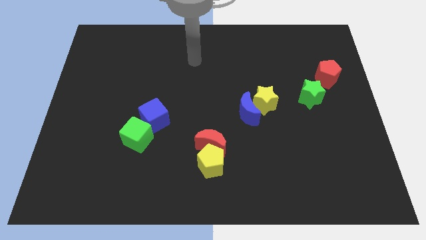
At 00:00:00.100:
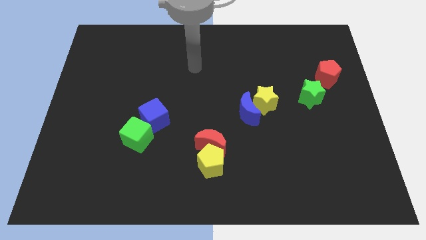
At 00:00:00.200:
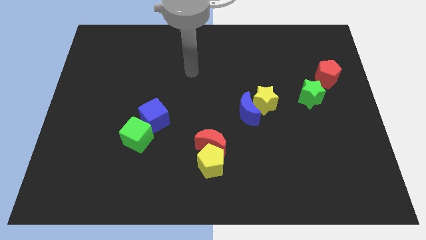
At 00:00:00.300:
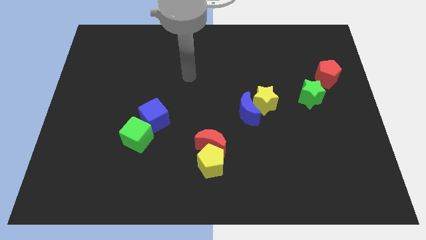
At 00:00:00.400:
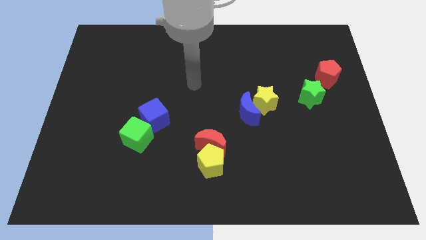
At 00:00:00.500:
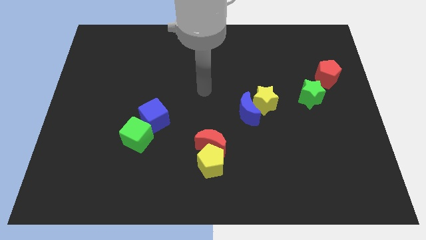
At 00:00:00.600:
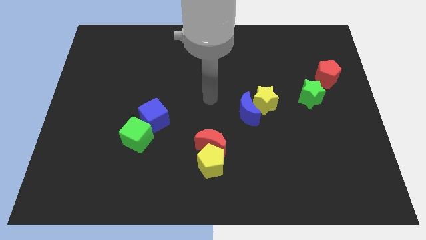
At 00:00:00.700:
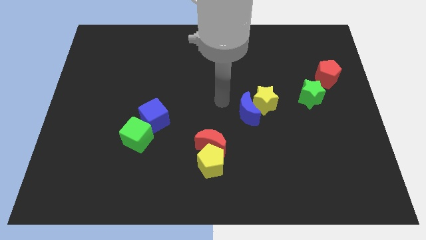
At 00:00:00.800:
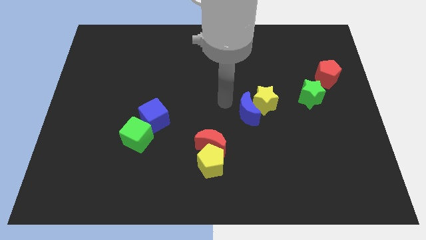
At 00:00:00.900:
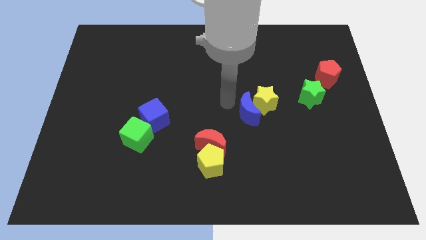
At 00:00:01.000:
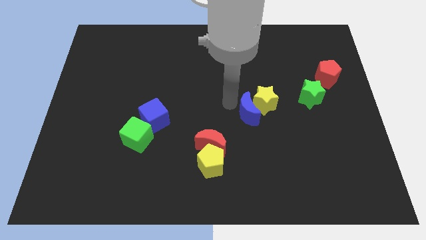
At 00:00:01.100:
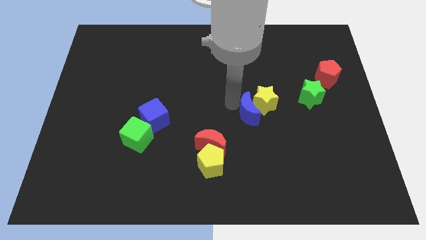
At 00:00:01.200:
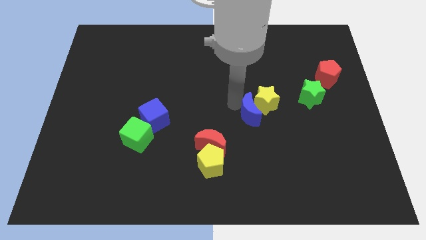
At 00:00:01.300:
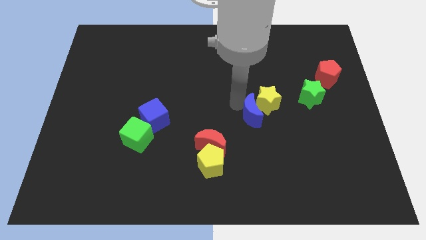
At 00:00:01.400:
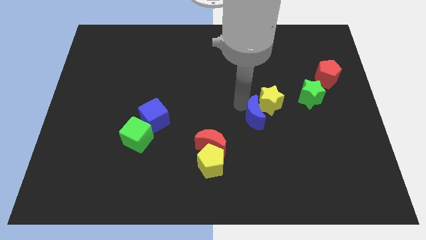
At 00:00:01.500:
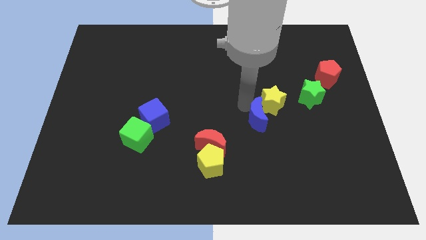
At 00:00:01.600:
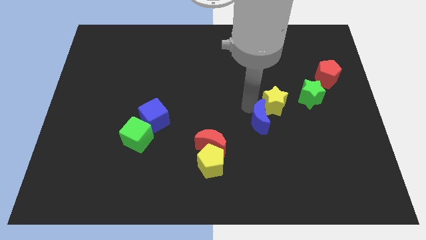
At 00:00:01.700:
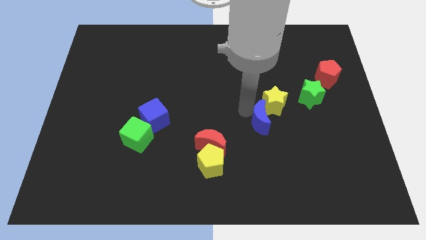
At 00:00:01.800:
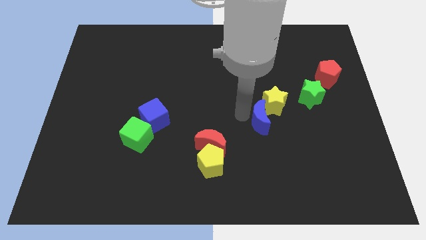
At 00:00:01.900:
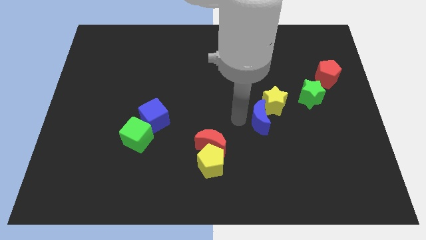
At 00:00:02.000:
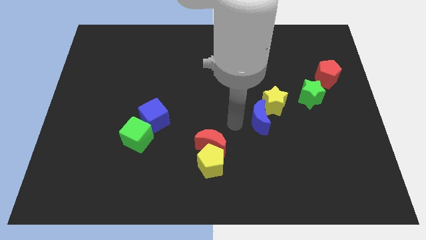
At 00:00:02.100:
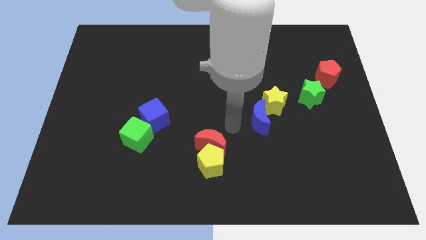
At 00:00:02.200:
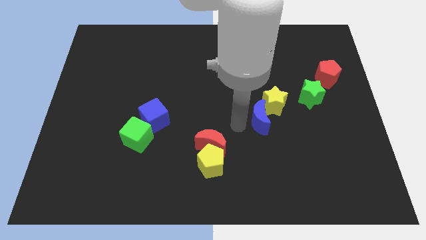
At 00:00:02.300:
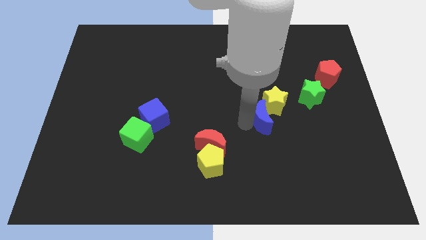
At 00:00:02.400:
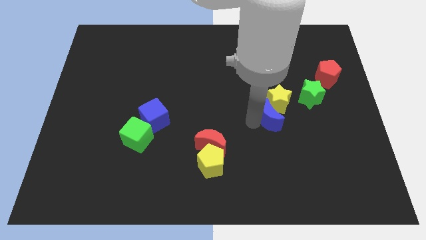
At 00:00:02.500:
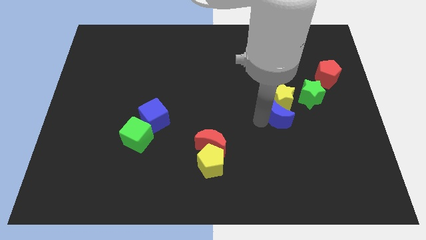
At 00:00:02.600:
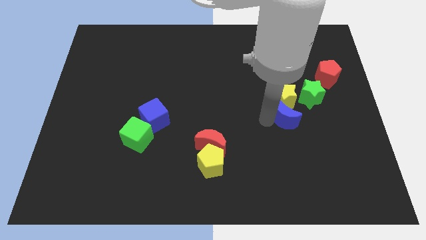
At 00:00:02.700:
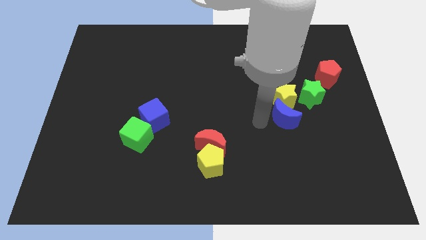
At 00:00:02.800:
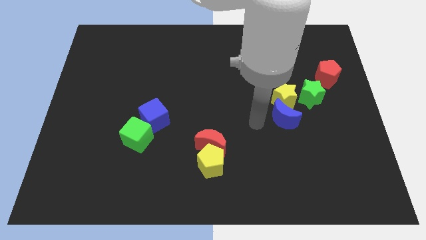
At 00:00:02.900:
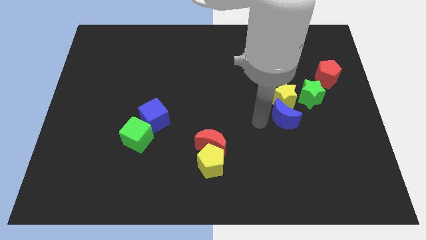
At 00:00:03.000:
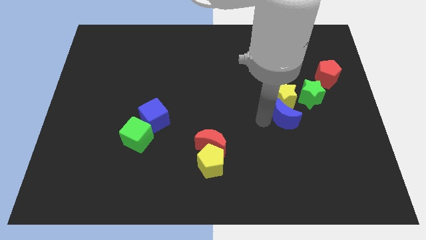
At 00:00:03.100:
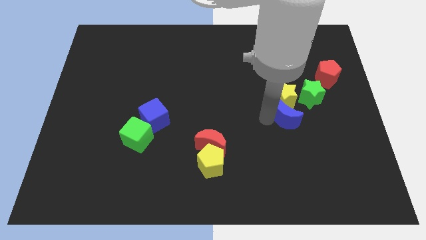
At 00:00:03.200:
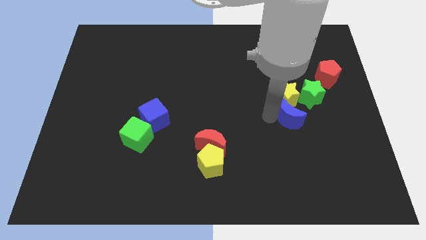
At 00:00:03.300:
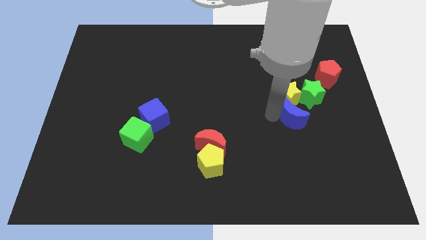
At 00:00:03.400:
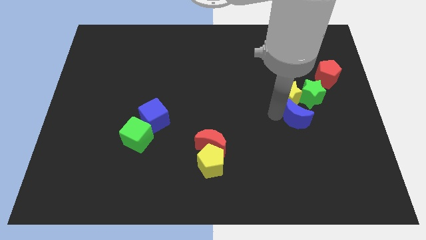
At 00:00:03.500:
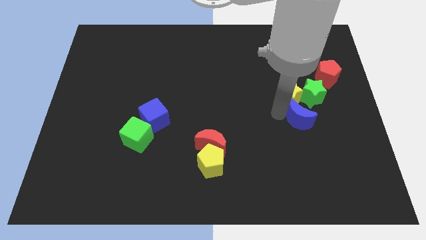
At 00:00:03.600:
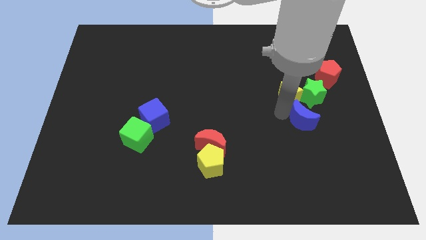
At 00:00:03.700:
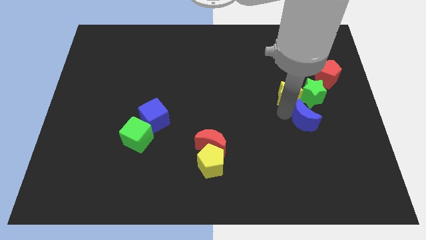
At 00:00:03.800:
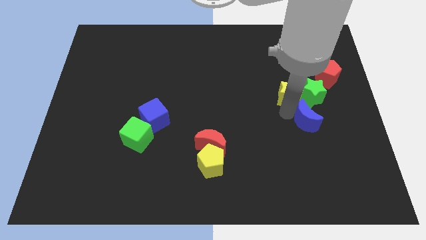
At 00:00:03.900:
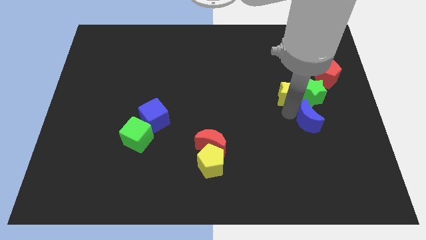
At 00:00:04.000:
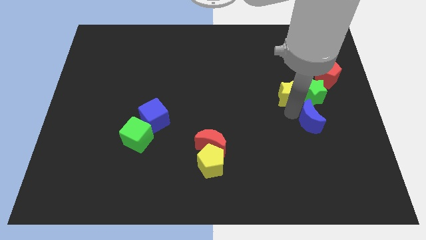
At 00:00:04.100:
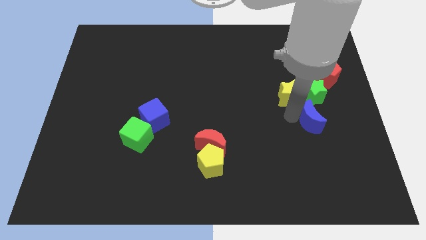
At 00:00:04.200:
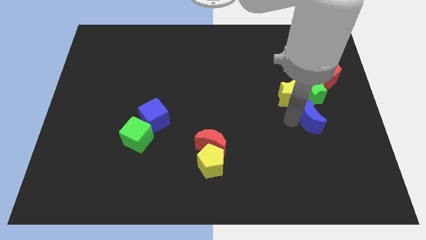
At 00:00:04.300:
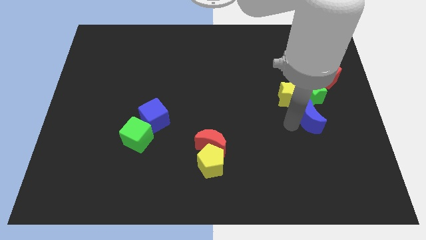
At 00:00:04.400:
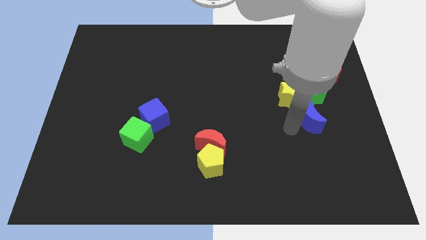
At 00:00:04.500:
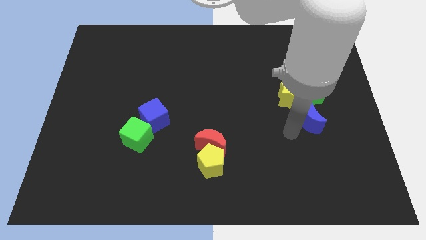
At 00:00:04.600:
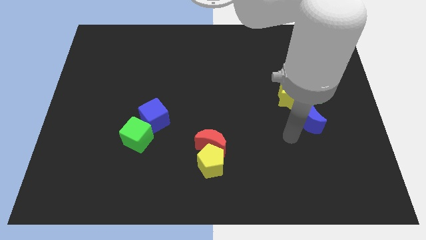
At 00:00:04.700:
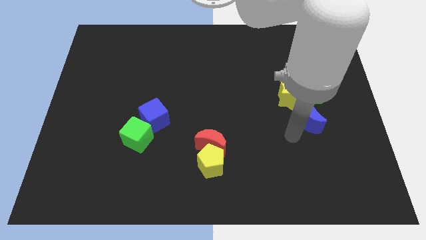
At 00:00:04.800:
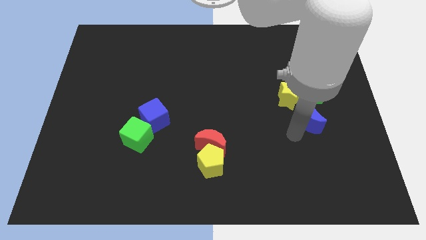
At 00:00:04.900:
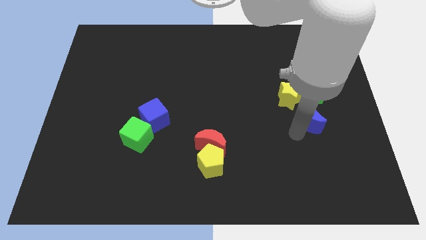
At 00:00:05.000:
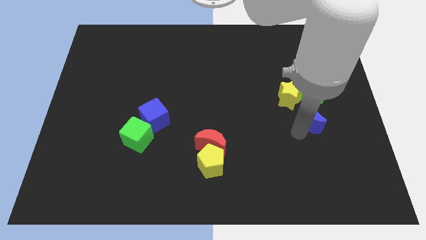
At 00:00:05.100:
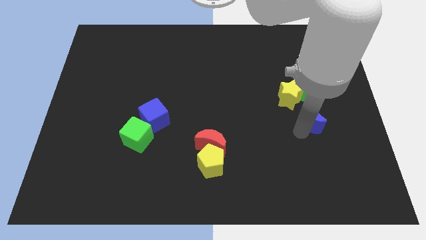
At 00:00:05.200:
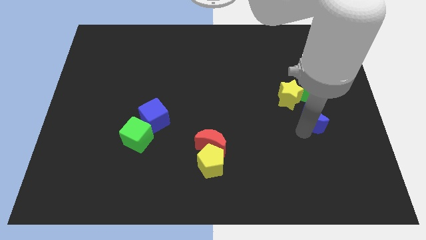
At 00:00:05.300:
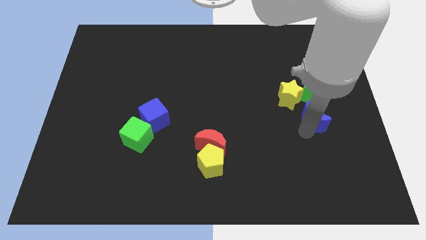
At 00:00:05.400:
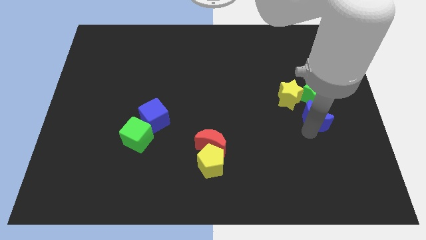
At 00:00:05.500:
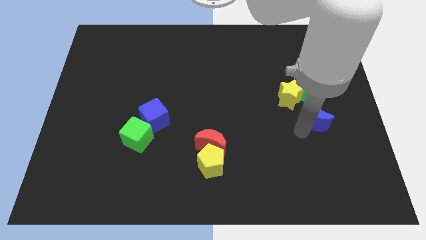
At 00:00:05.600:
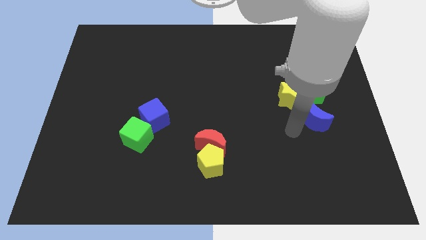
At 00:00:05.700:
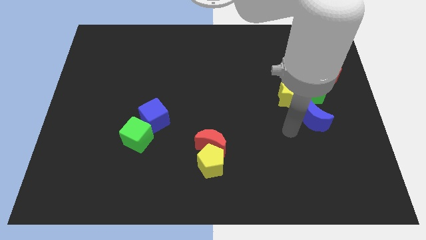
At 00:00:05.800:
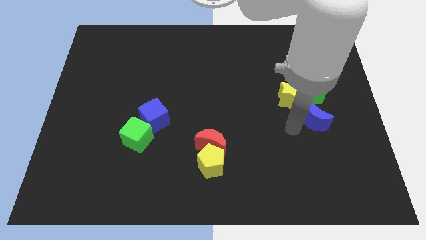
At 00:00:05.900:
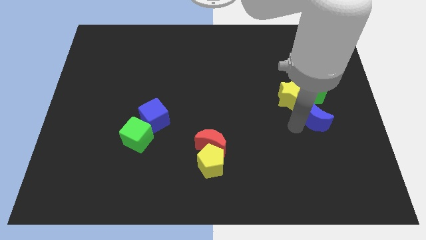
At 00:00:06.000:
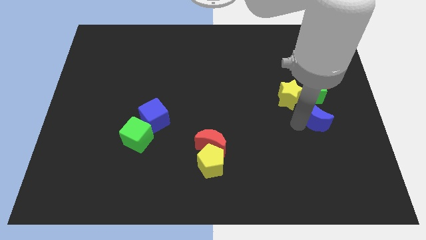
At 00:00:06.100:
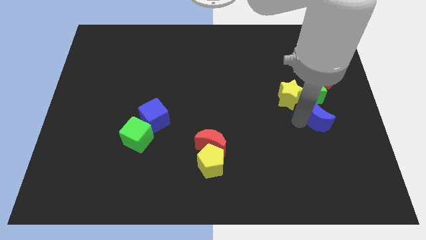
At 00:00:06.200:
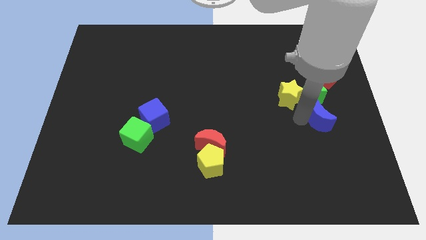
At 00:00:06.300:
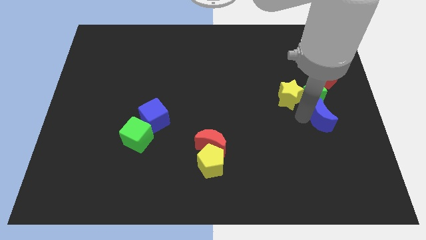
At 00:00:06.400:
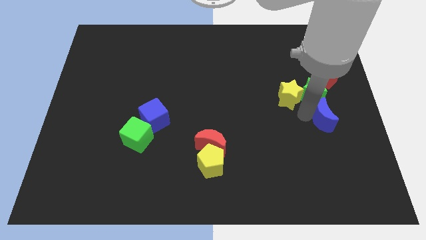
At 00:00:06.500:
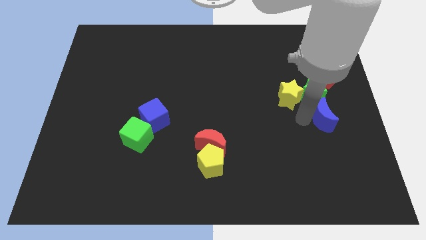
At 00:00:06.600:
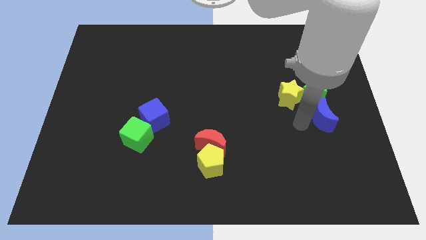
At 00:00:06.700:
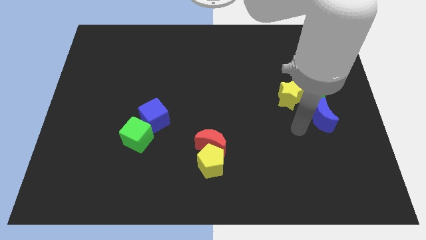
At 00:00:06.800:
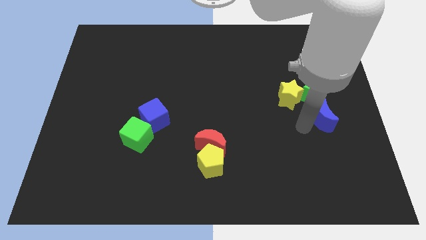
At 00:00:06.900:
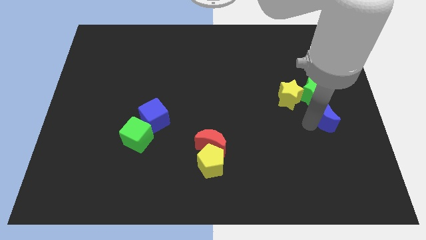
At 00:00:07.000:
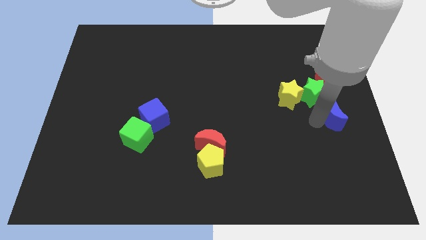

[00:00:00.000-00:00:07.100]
move the blue moon to the center right
